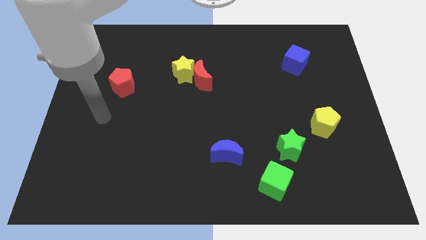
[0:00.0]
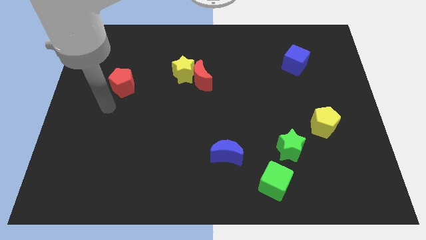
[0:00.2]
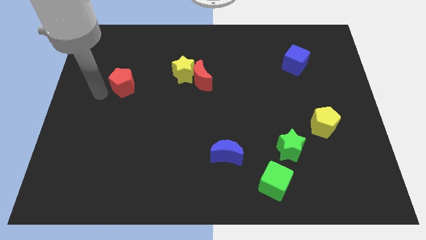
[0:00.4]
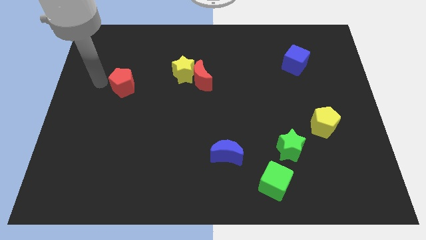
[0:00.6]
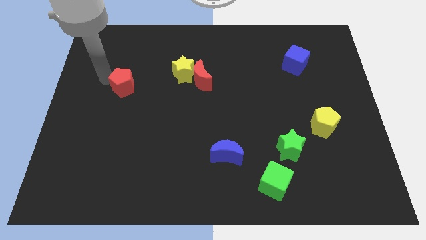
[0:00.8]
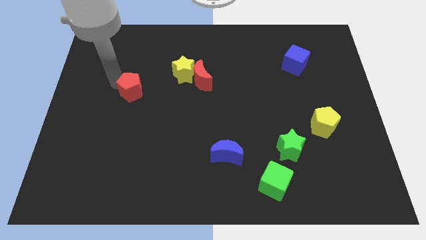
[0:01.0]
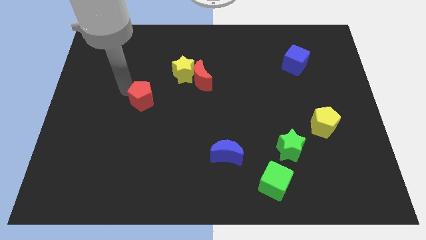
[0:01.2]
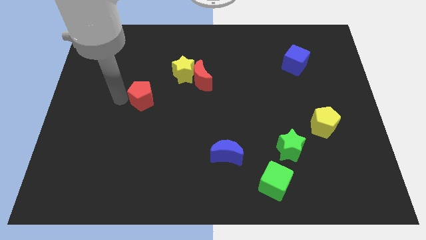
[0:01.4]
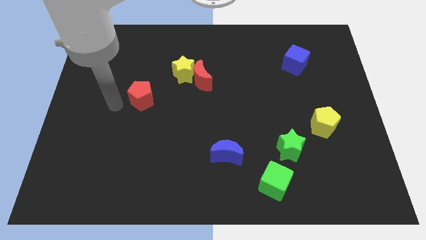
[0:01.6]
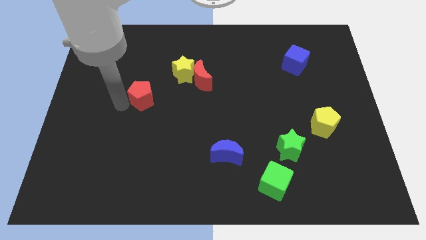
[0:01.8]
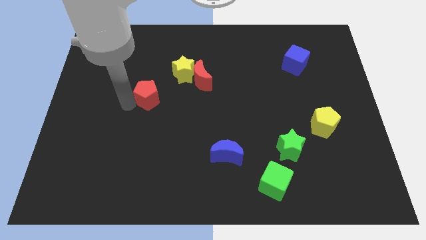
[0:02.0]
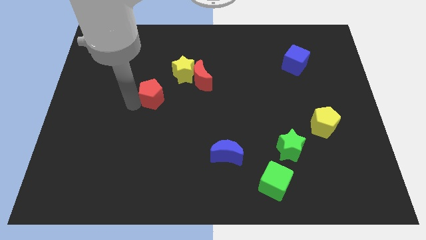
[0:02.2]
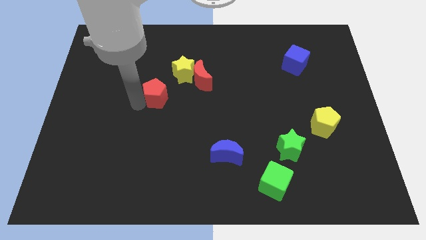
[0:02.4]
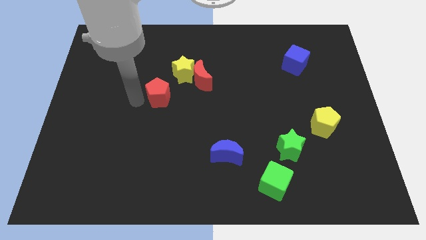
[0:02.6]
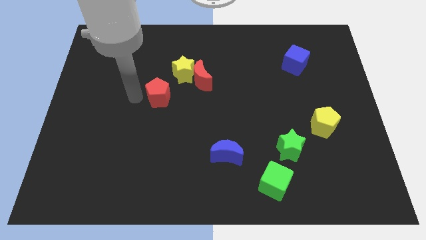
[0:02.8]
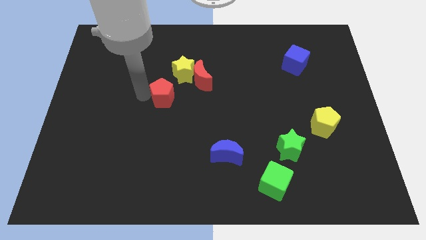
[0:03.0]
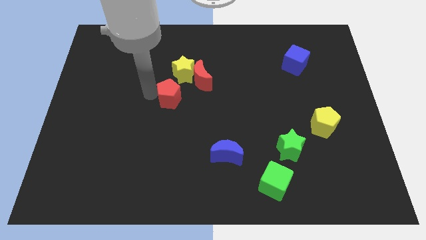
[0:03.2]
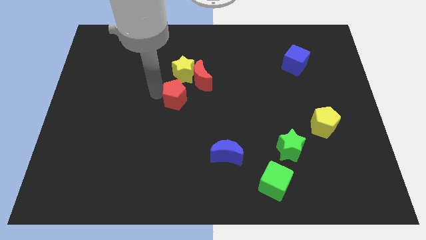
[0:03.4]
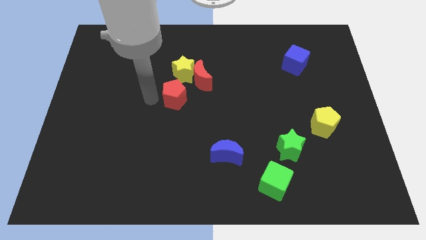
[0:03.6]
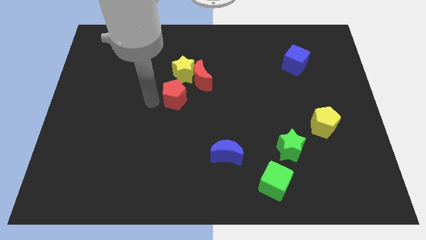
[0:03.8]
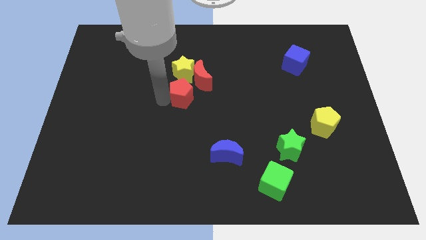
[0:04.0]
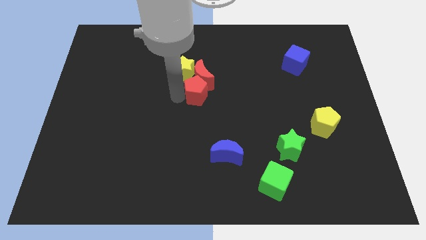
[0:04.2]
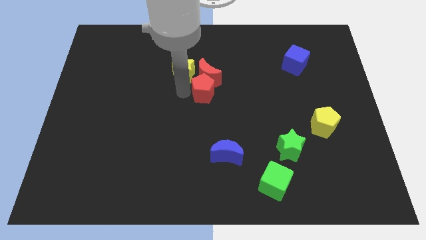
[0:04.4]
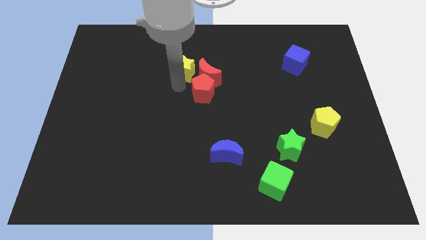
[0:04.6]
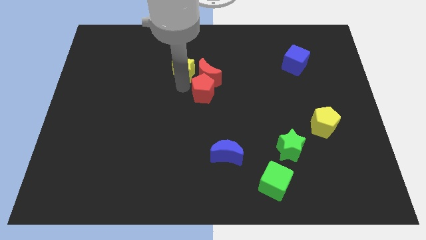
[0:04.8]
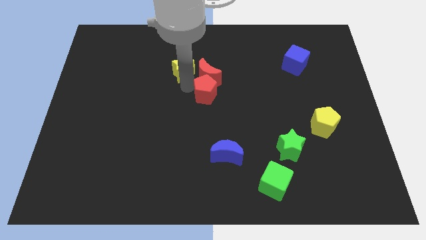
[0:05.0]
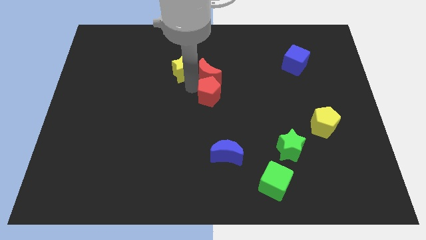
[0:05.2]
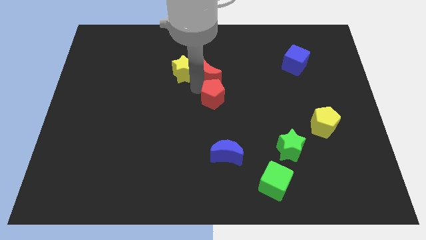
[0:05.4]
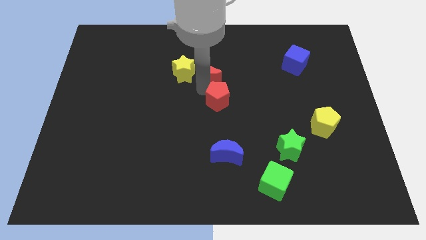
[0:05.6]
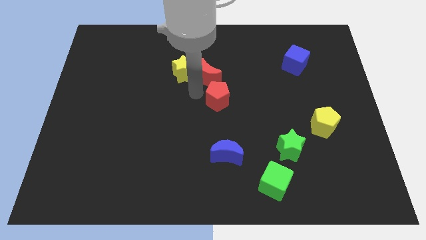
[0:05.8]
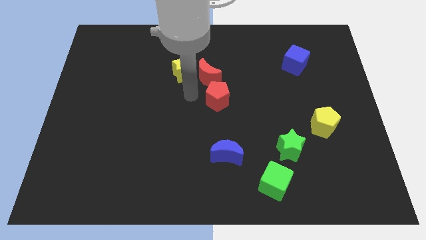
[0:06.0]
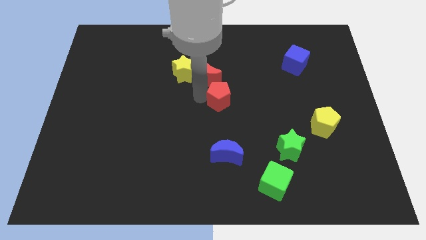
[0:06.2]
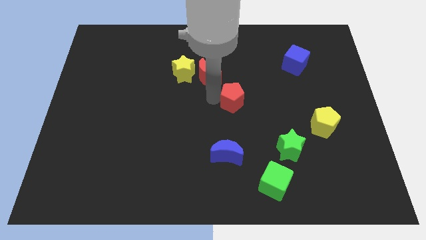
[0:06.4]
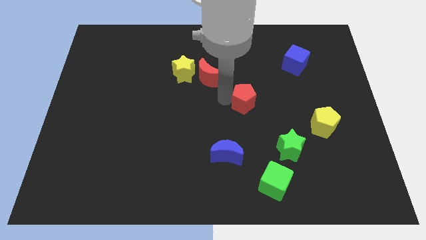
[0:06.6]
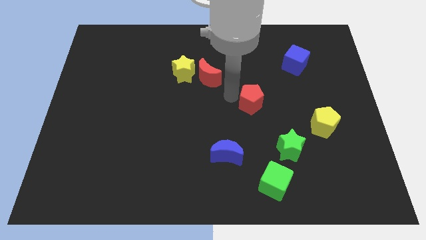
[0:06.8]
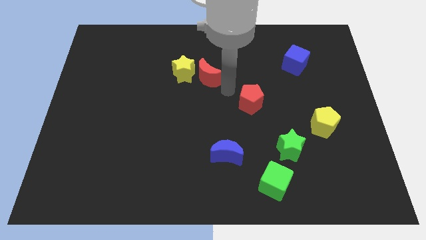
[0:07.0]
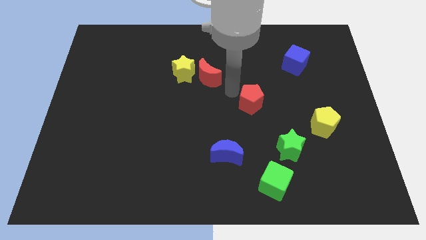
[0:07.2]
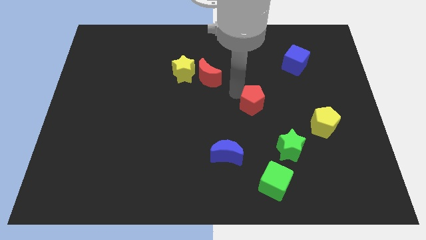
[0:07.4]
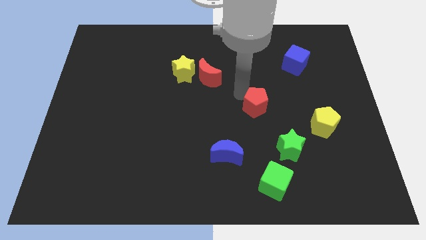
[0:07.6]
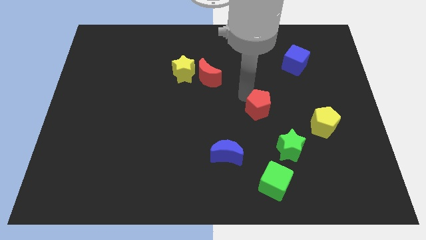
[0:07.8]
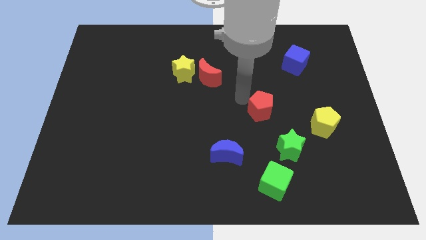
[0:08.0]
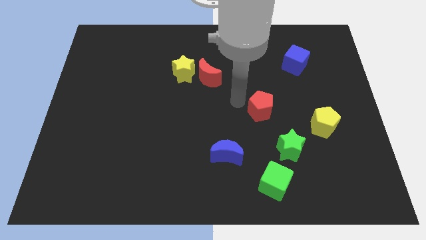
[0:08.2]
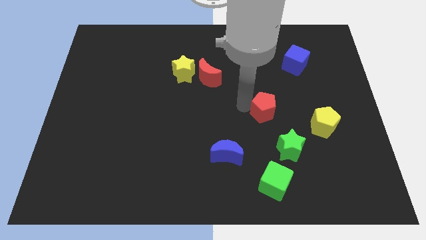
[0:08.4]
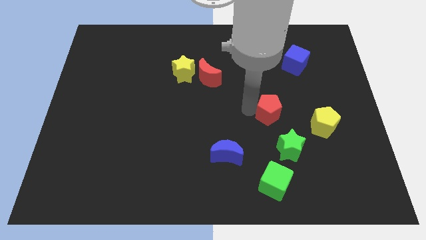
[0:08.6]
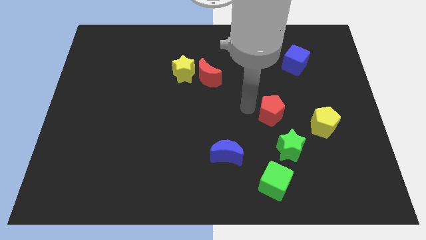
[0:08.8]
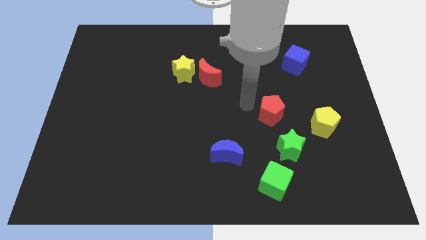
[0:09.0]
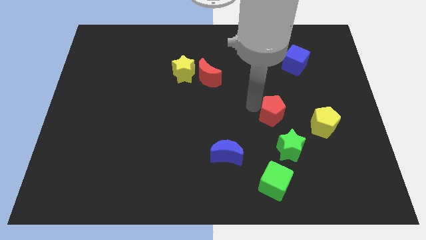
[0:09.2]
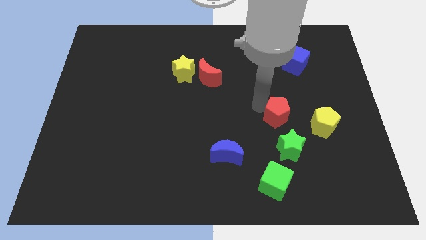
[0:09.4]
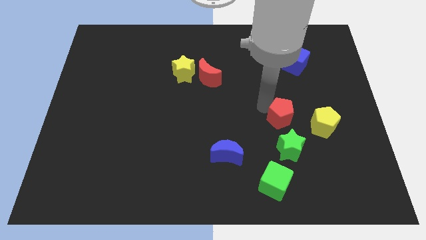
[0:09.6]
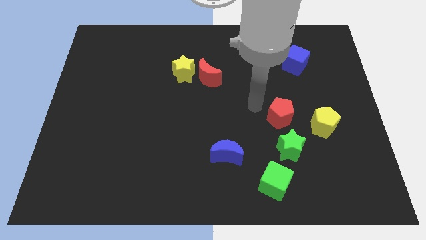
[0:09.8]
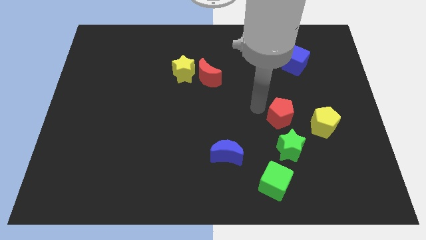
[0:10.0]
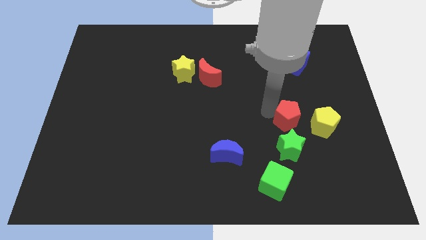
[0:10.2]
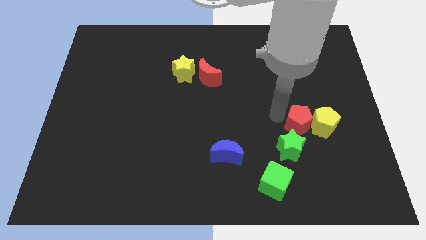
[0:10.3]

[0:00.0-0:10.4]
move the red pentagon close to the yellow pentagon

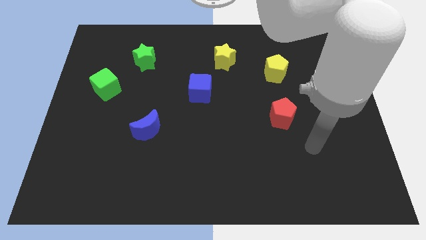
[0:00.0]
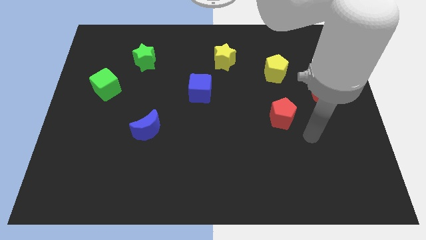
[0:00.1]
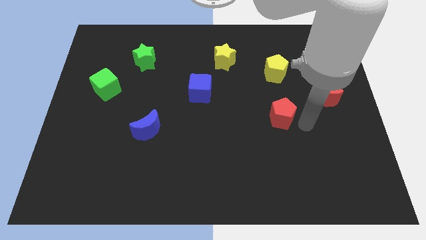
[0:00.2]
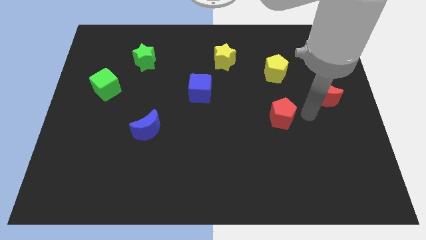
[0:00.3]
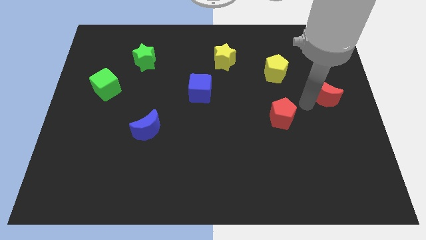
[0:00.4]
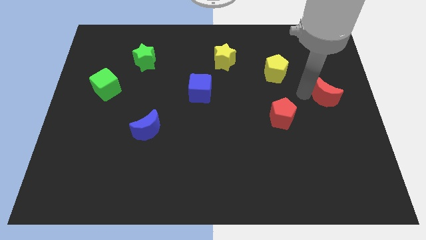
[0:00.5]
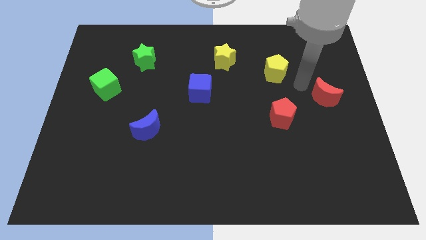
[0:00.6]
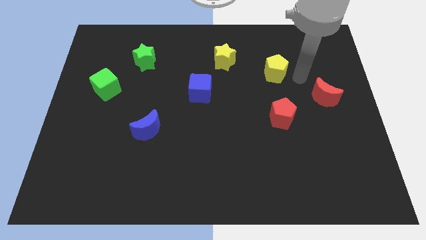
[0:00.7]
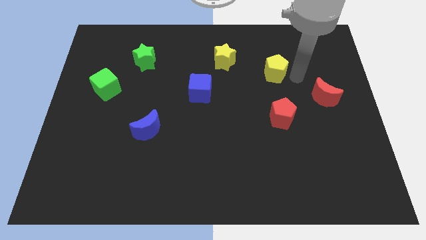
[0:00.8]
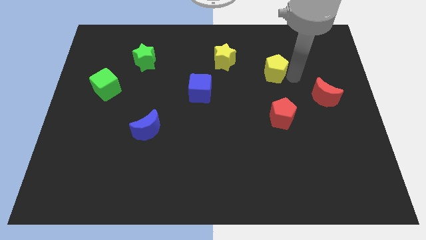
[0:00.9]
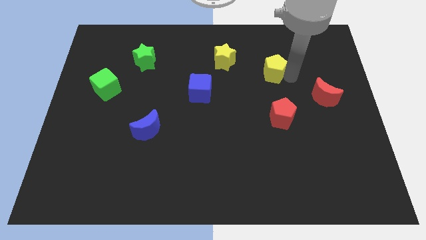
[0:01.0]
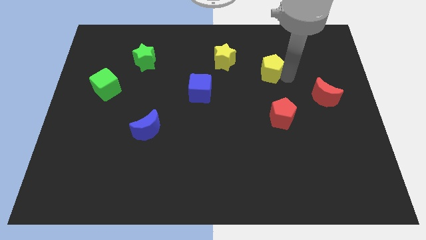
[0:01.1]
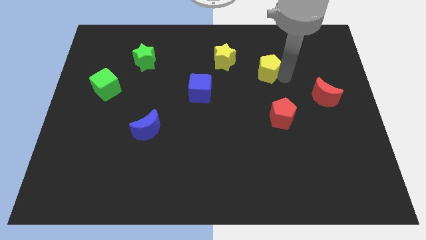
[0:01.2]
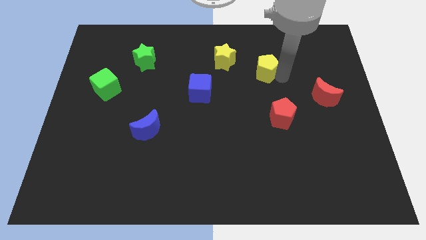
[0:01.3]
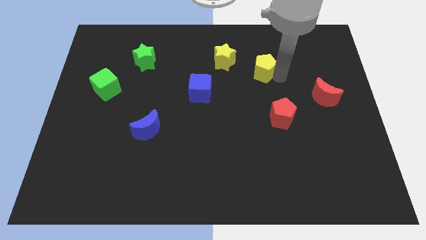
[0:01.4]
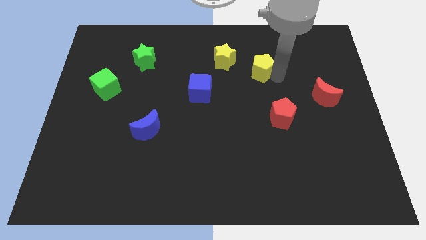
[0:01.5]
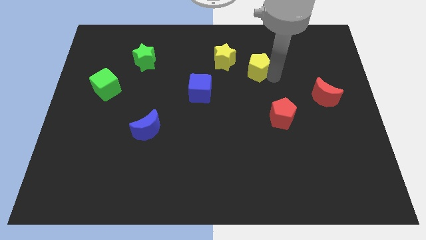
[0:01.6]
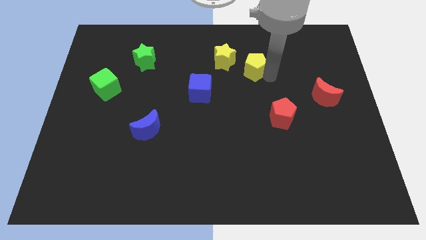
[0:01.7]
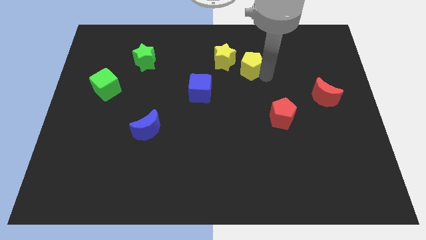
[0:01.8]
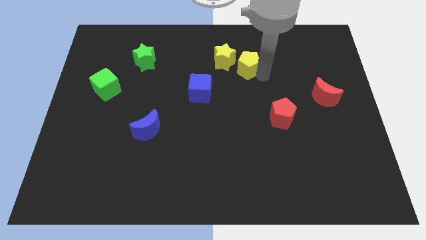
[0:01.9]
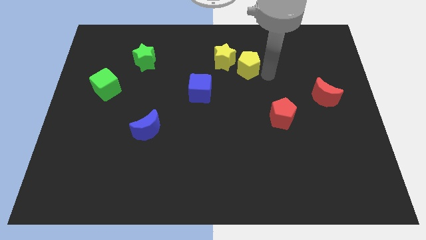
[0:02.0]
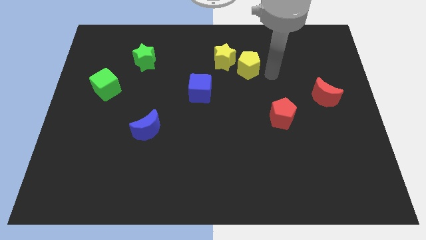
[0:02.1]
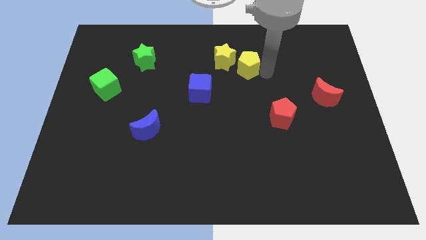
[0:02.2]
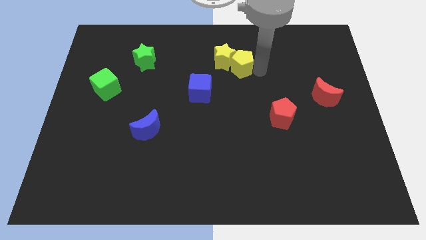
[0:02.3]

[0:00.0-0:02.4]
slide the yellow pentagon next to the yellow star

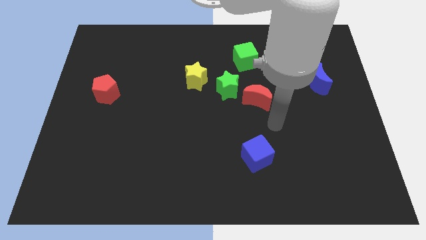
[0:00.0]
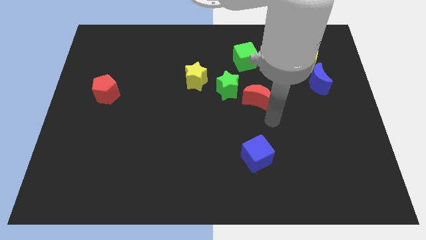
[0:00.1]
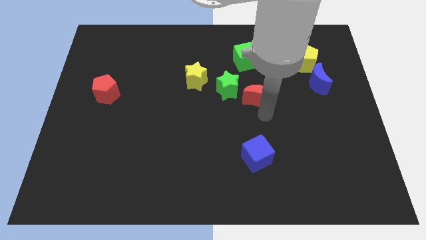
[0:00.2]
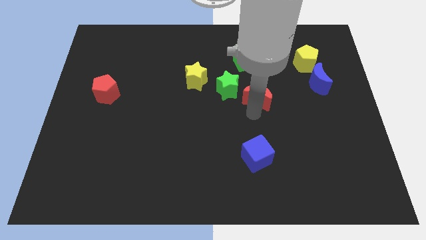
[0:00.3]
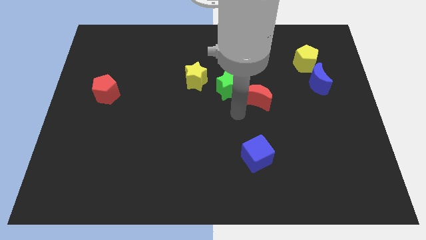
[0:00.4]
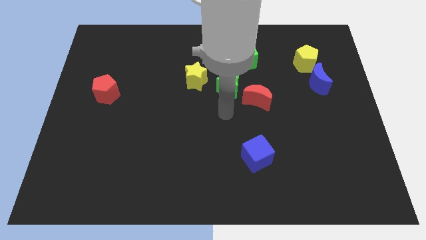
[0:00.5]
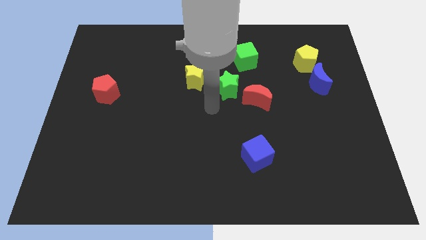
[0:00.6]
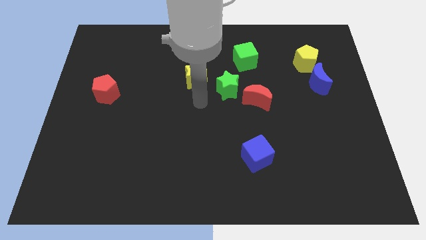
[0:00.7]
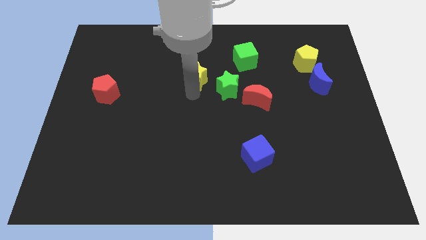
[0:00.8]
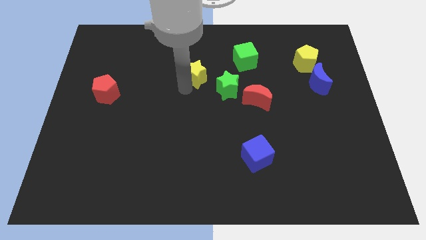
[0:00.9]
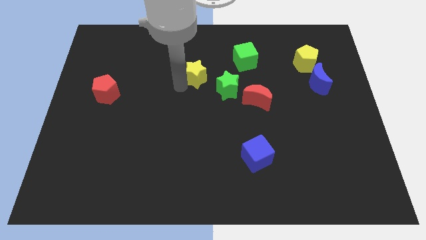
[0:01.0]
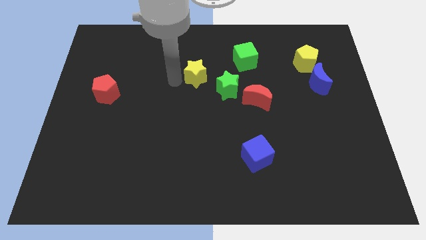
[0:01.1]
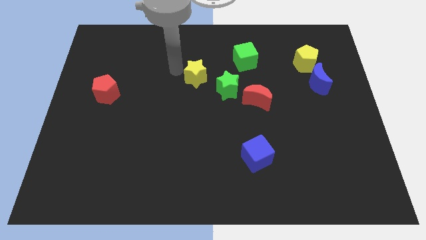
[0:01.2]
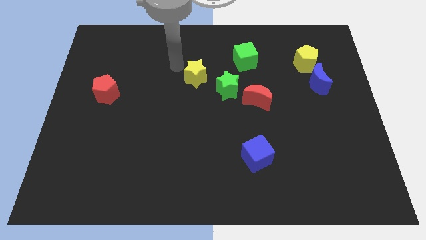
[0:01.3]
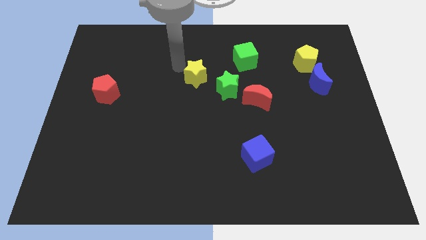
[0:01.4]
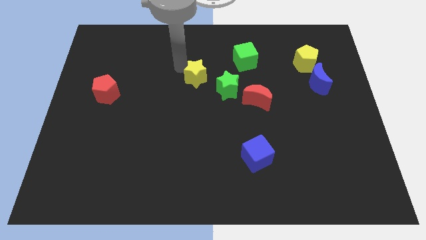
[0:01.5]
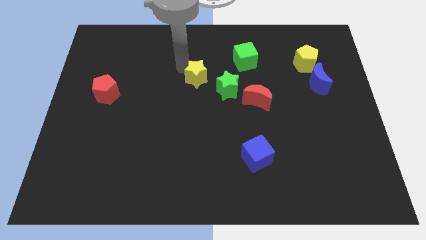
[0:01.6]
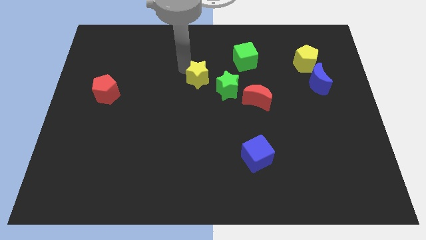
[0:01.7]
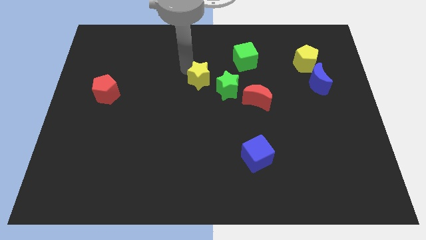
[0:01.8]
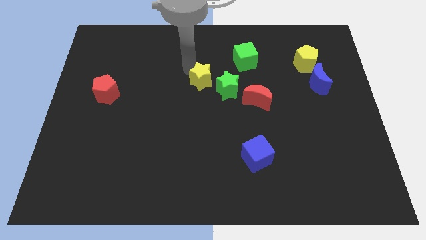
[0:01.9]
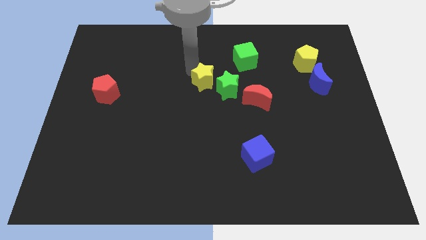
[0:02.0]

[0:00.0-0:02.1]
push the yellow star to the green star
